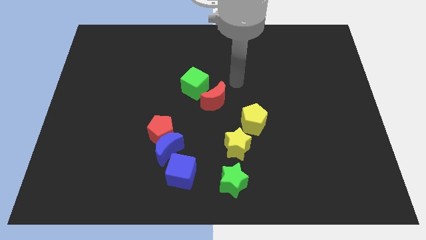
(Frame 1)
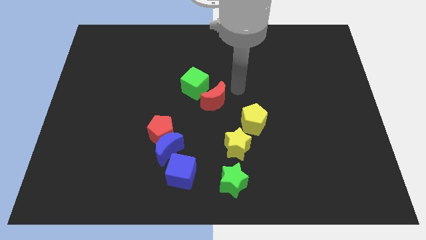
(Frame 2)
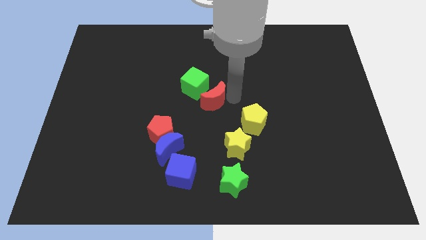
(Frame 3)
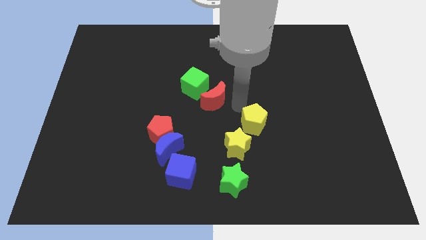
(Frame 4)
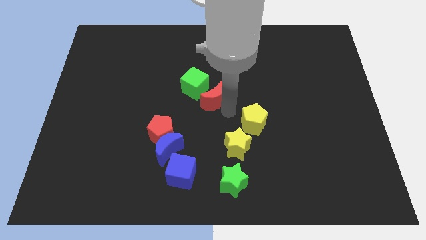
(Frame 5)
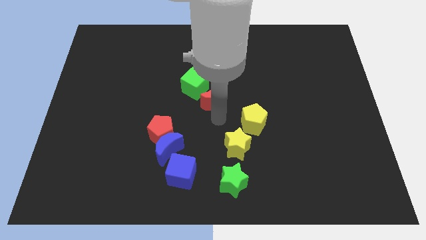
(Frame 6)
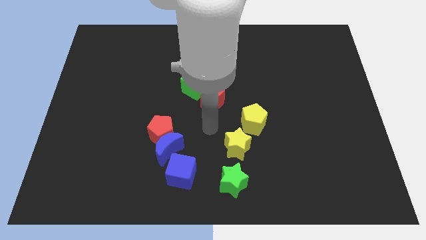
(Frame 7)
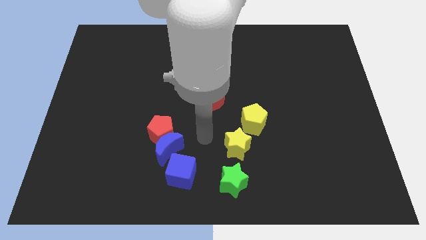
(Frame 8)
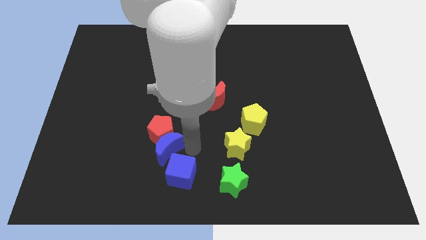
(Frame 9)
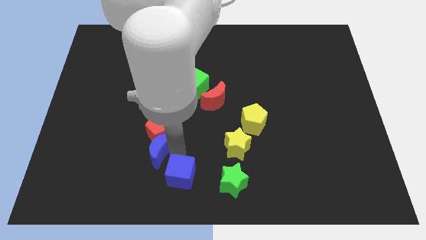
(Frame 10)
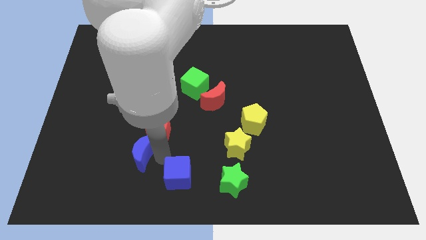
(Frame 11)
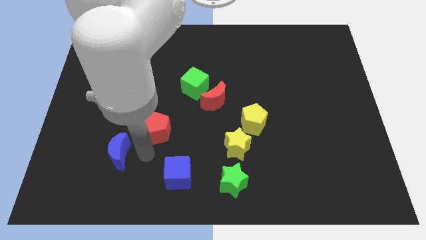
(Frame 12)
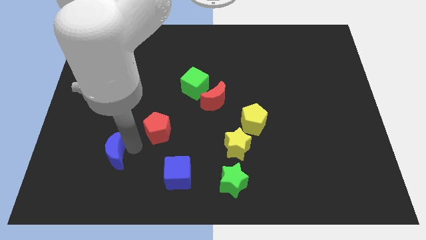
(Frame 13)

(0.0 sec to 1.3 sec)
separate the red pentagon from the blue moon

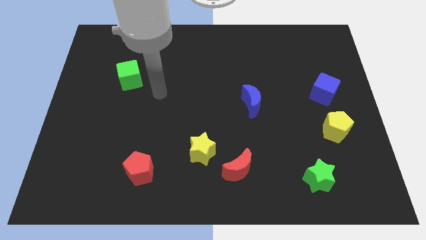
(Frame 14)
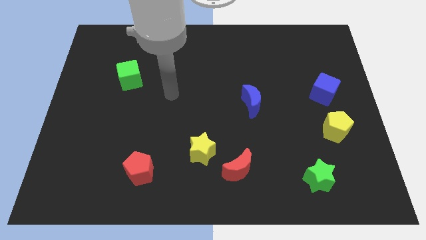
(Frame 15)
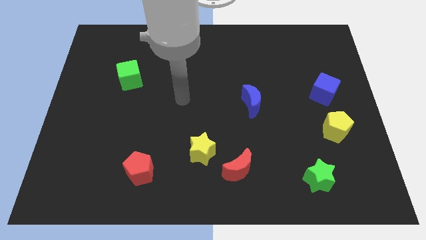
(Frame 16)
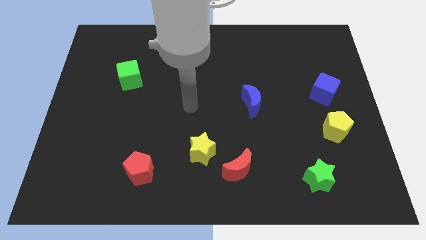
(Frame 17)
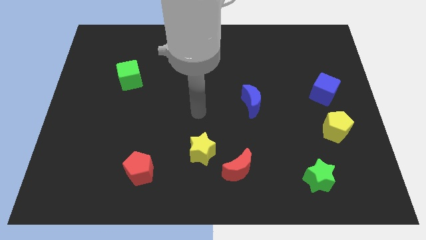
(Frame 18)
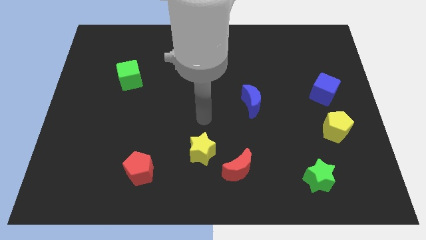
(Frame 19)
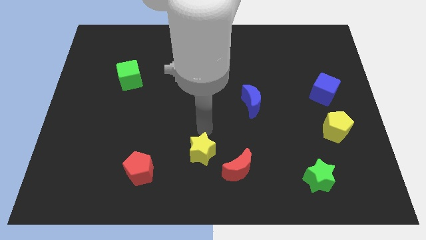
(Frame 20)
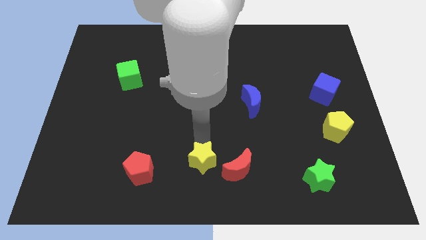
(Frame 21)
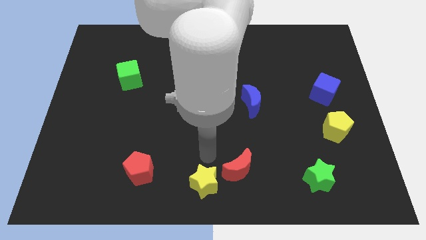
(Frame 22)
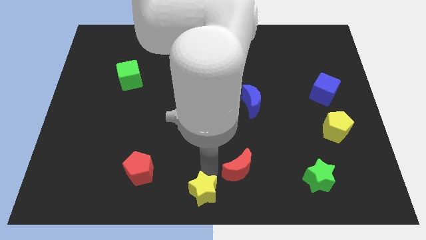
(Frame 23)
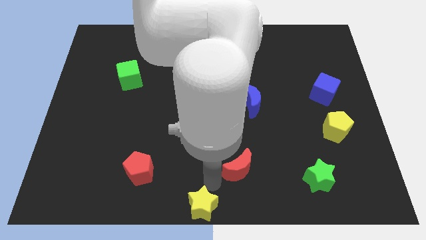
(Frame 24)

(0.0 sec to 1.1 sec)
move the red moon away from the yellow star

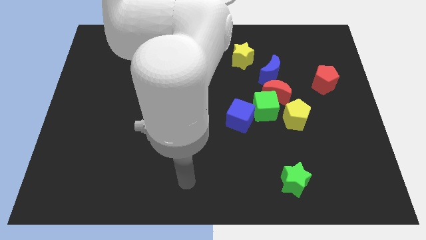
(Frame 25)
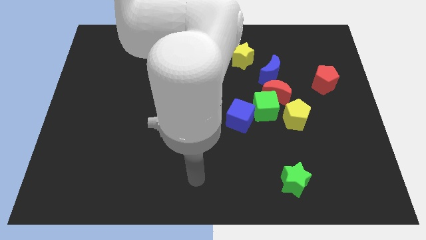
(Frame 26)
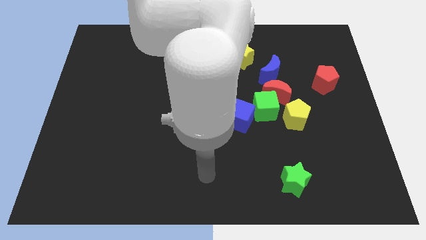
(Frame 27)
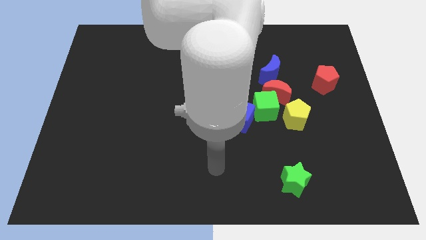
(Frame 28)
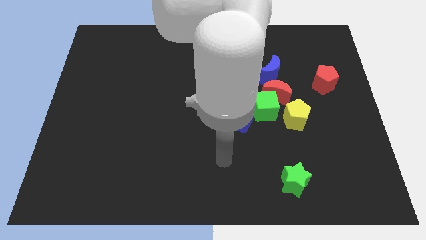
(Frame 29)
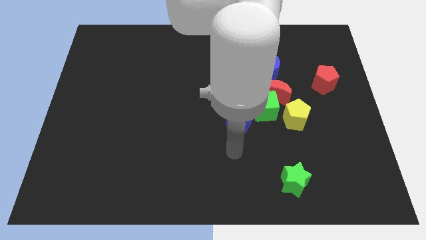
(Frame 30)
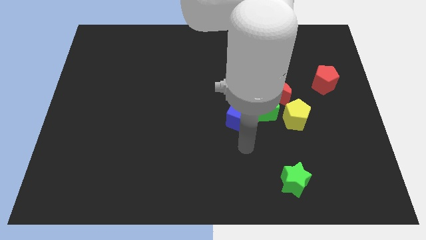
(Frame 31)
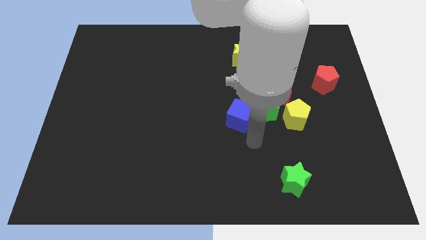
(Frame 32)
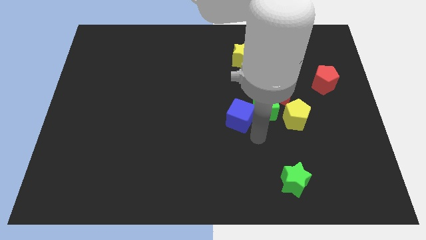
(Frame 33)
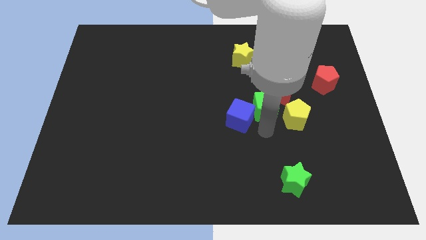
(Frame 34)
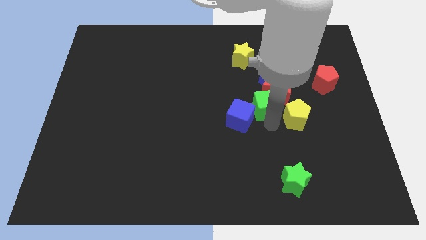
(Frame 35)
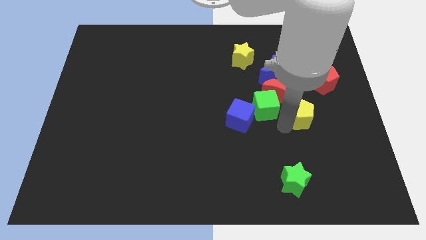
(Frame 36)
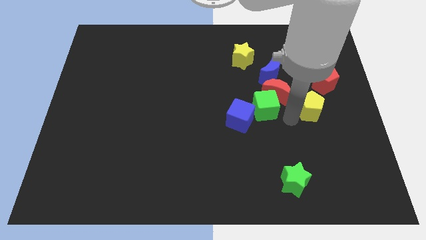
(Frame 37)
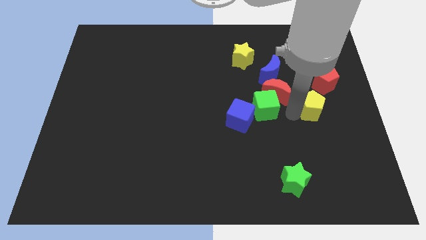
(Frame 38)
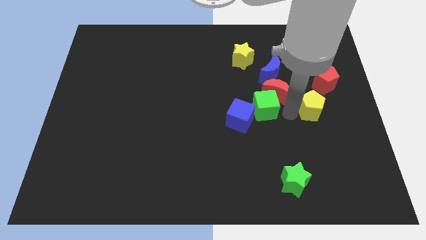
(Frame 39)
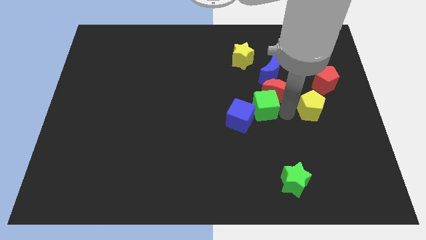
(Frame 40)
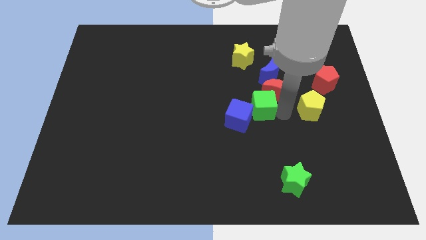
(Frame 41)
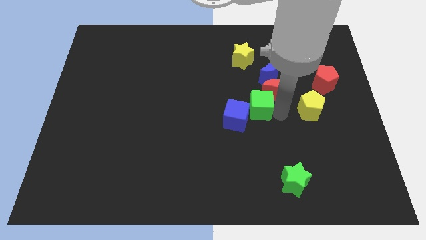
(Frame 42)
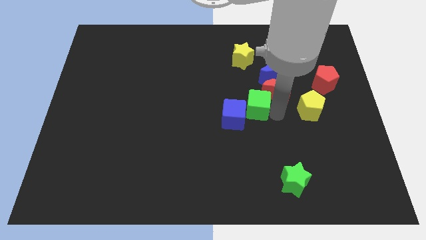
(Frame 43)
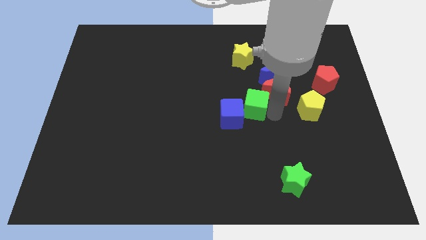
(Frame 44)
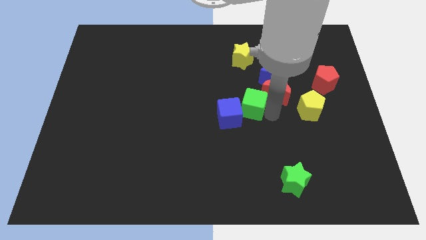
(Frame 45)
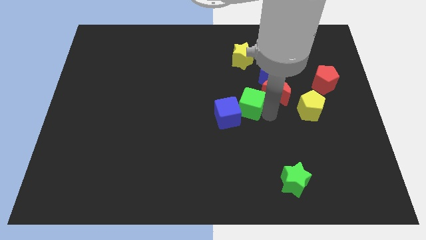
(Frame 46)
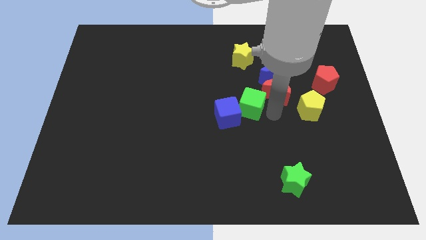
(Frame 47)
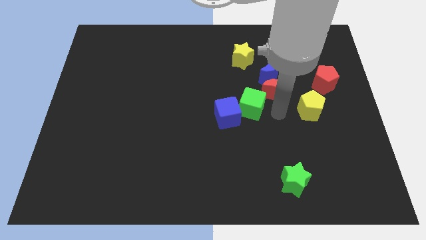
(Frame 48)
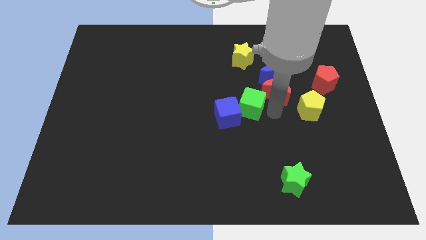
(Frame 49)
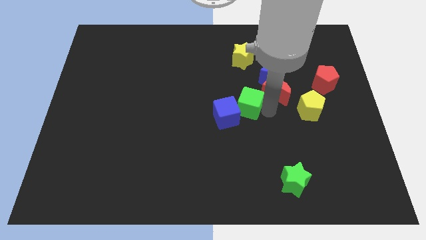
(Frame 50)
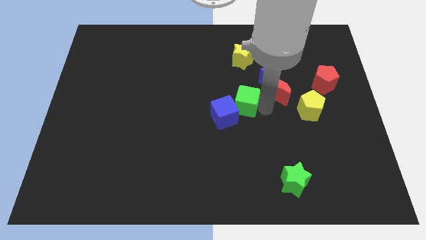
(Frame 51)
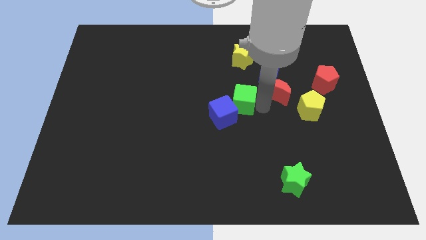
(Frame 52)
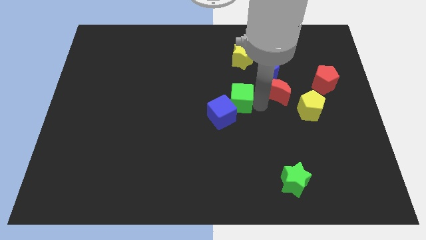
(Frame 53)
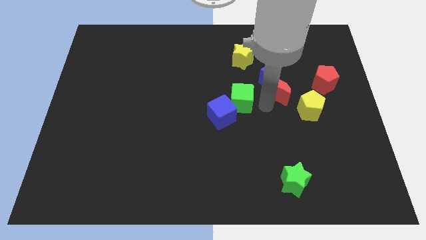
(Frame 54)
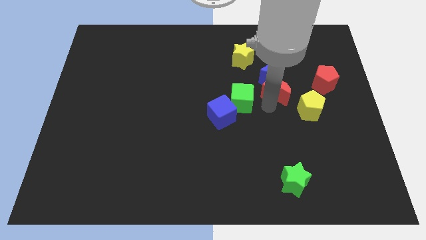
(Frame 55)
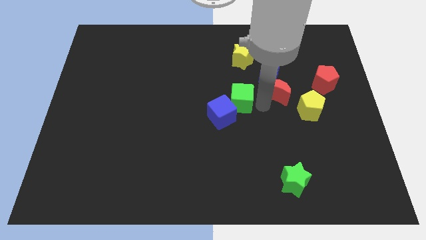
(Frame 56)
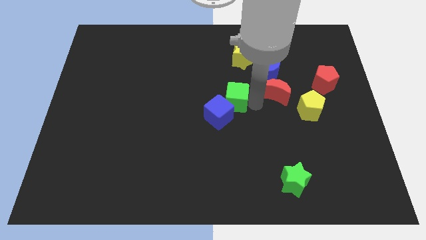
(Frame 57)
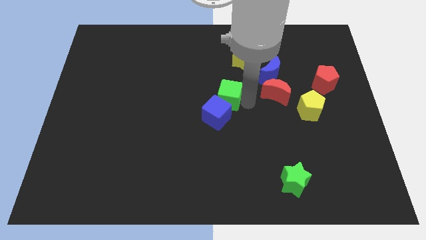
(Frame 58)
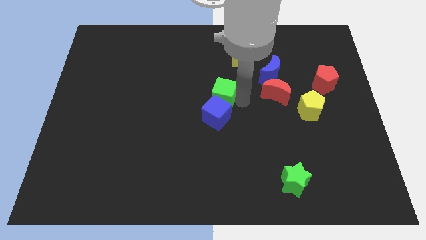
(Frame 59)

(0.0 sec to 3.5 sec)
pull the green cube apart from the red moon, blue cube, and yellow pentagon

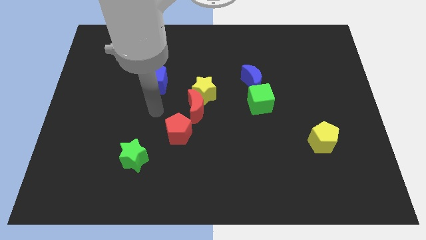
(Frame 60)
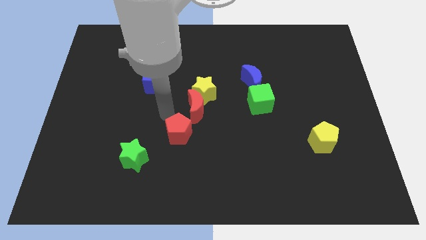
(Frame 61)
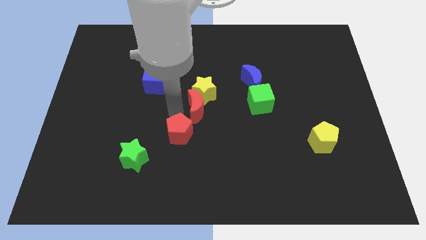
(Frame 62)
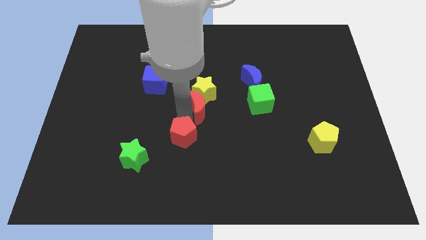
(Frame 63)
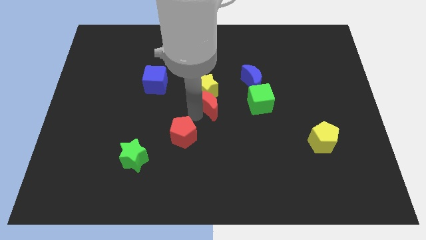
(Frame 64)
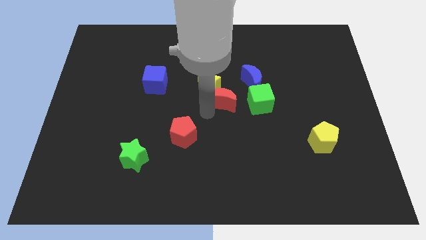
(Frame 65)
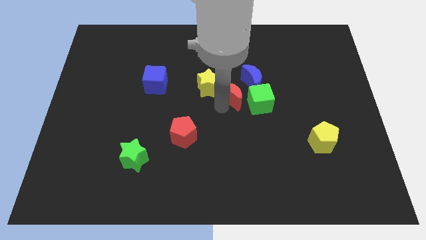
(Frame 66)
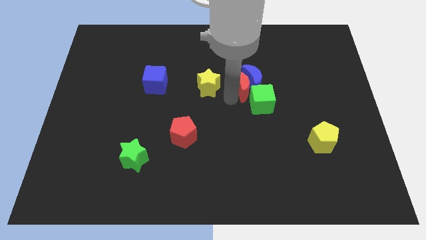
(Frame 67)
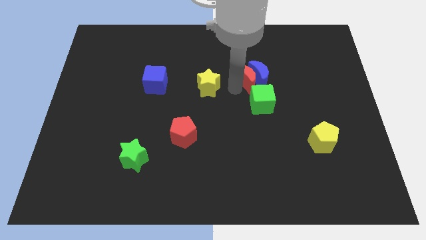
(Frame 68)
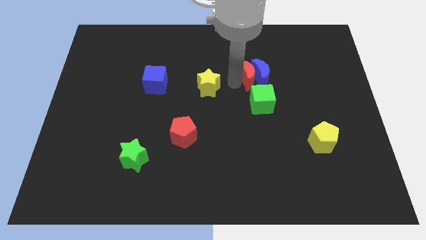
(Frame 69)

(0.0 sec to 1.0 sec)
move the yellow star away from the red moon

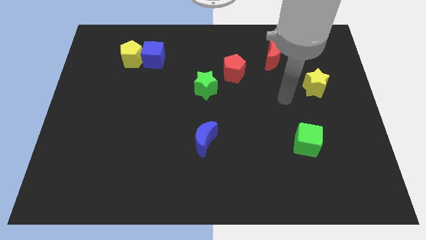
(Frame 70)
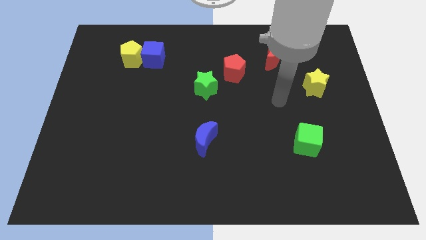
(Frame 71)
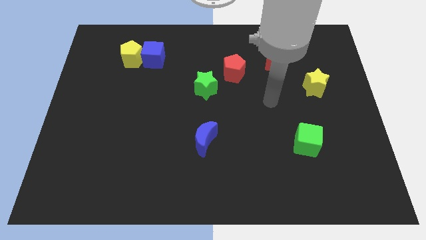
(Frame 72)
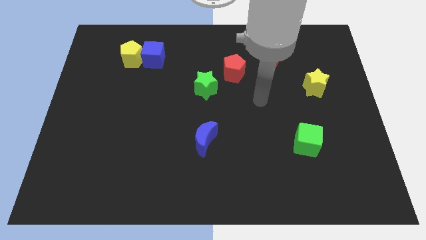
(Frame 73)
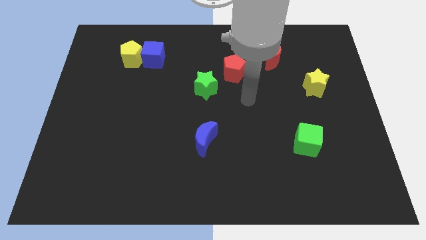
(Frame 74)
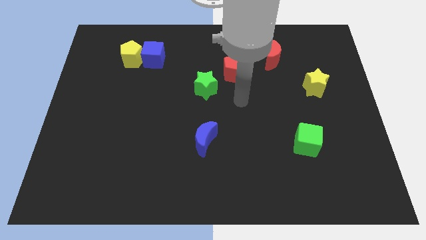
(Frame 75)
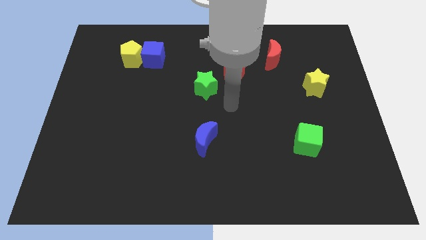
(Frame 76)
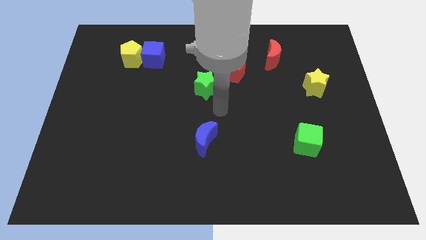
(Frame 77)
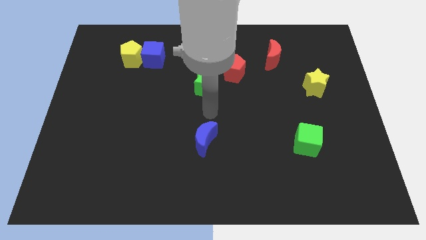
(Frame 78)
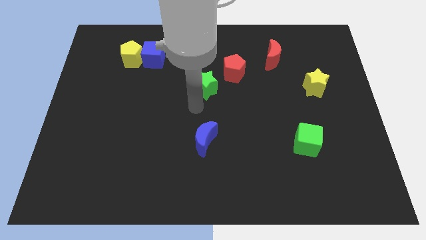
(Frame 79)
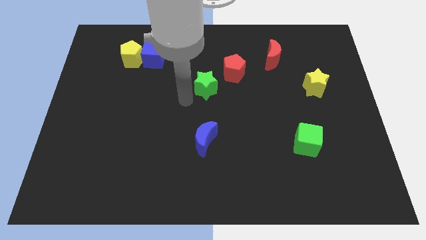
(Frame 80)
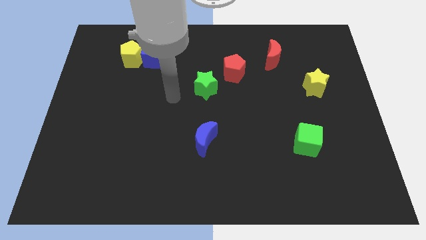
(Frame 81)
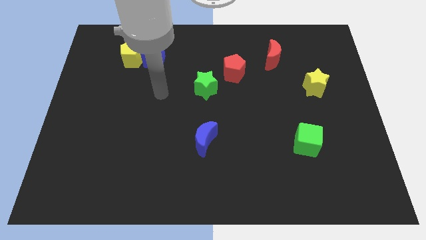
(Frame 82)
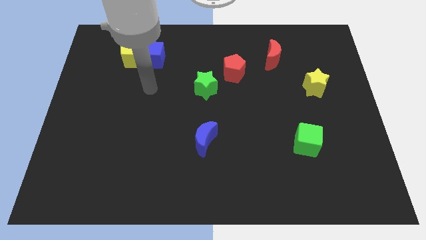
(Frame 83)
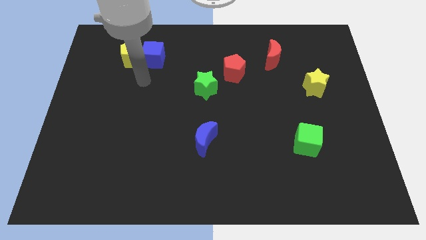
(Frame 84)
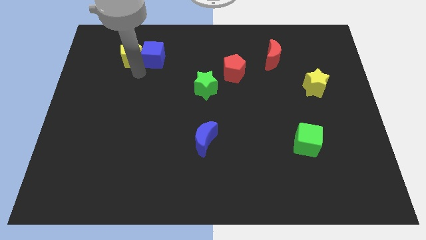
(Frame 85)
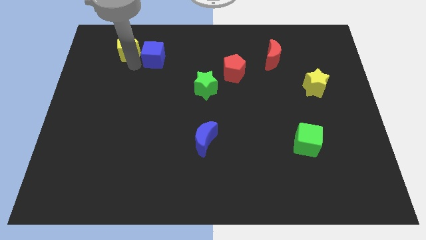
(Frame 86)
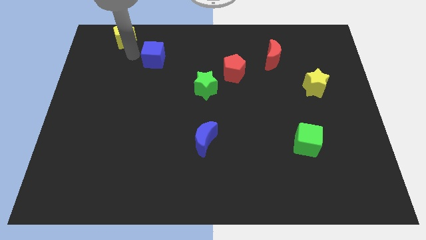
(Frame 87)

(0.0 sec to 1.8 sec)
move the blue cube away from the yellow pentagon

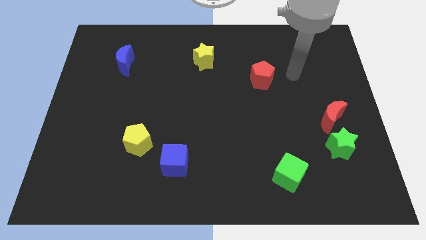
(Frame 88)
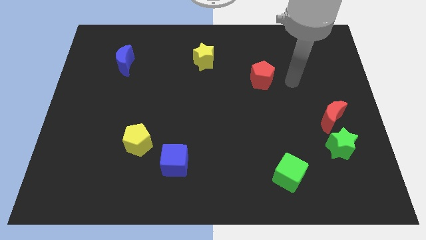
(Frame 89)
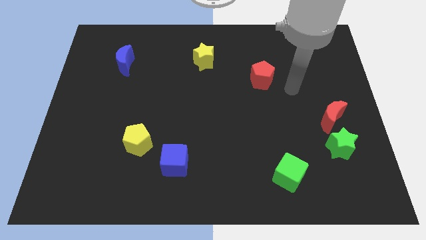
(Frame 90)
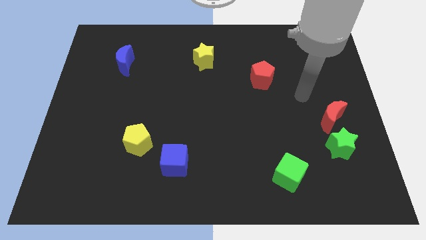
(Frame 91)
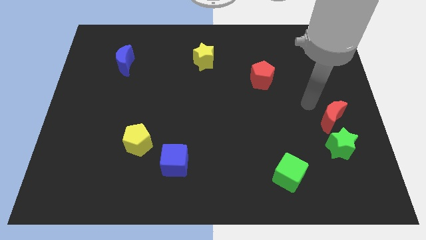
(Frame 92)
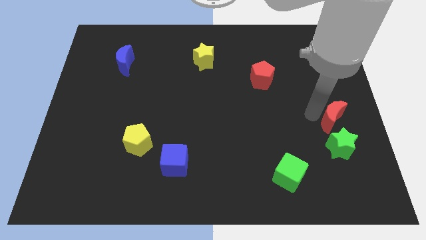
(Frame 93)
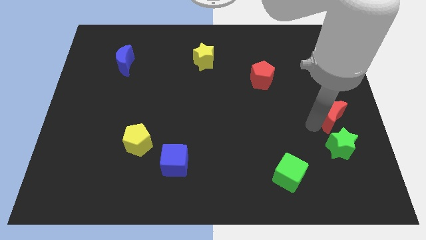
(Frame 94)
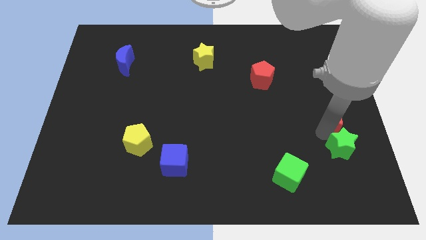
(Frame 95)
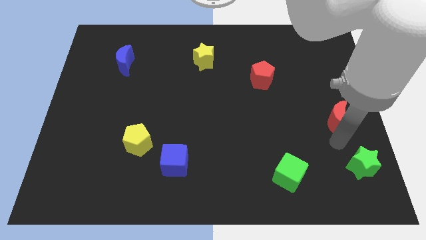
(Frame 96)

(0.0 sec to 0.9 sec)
pull the red moon apart from the green star
